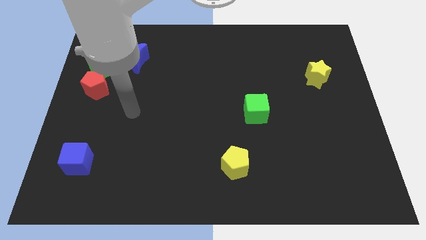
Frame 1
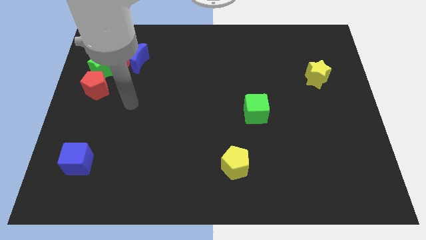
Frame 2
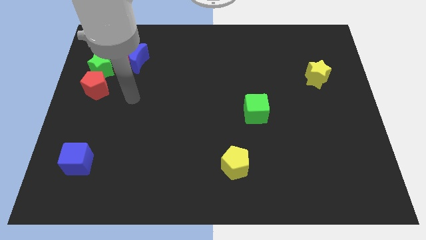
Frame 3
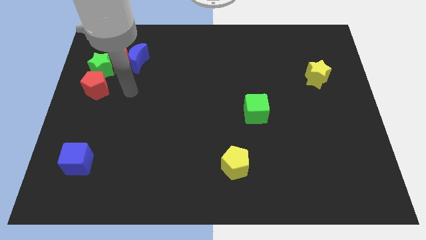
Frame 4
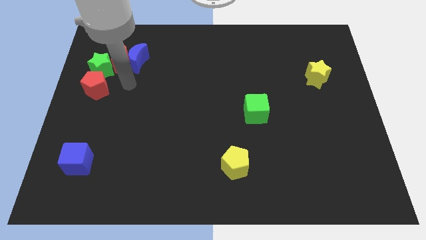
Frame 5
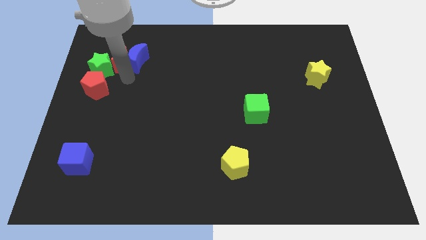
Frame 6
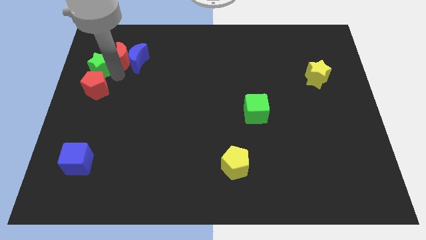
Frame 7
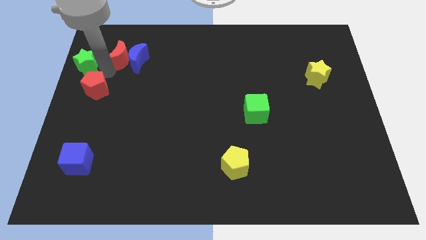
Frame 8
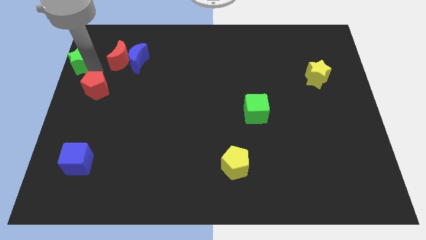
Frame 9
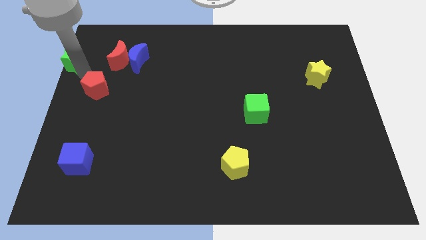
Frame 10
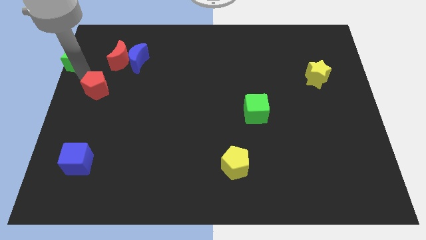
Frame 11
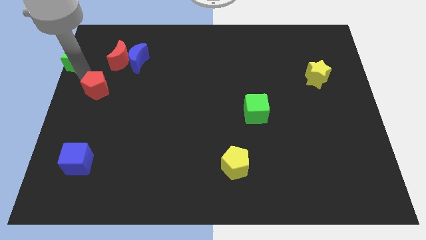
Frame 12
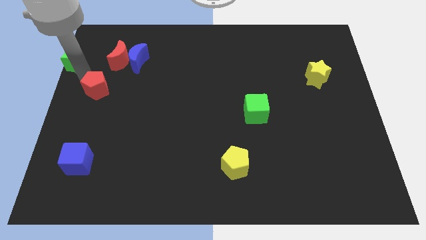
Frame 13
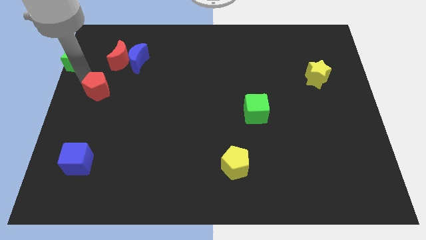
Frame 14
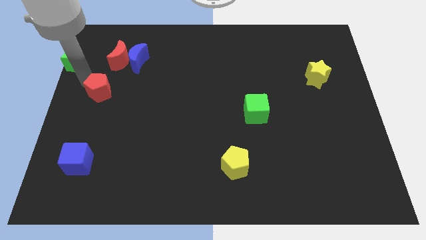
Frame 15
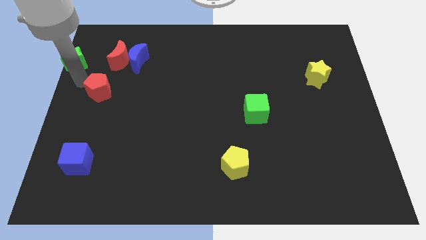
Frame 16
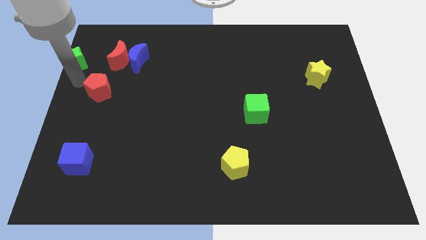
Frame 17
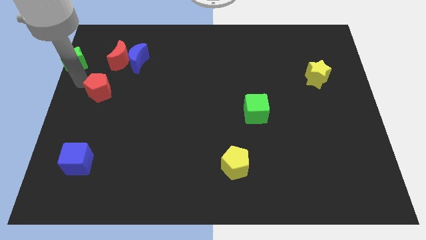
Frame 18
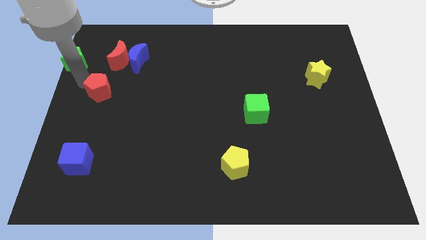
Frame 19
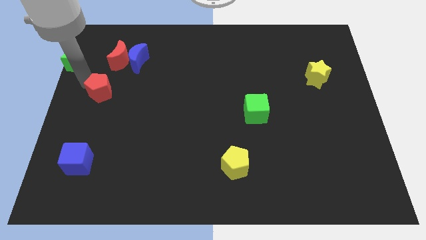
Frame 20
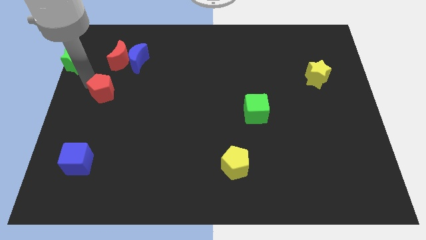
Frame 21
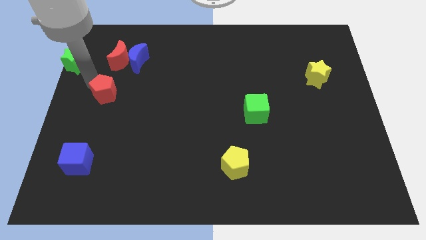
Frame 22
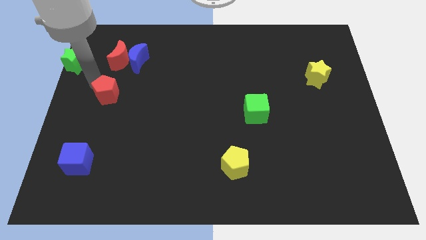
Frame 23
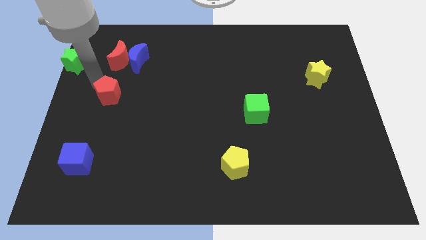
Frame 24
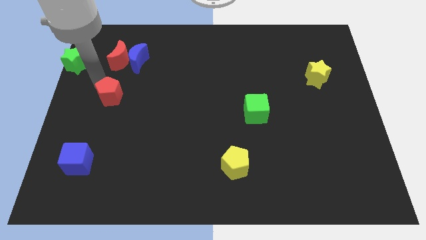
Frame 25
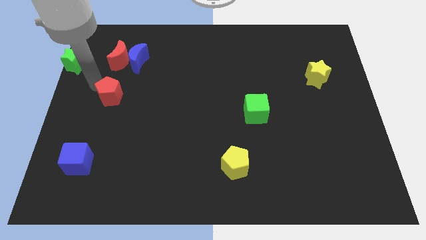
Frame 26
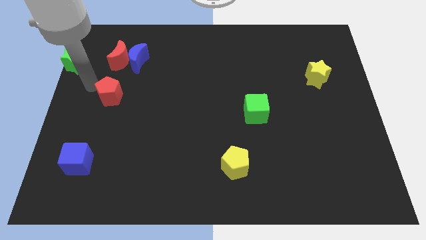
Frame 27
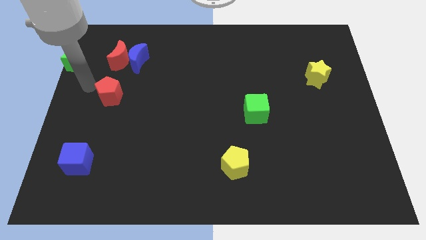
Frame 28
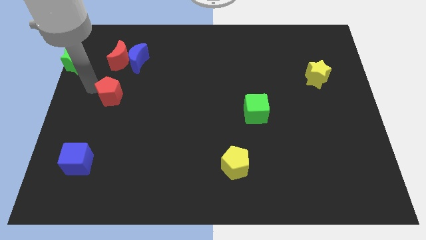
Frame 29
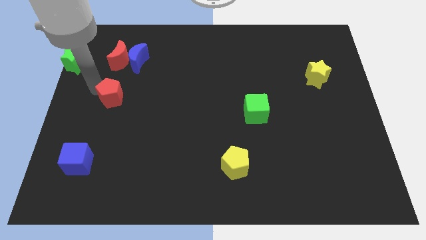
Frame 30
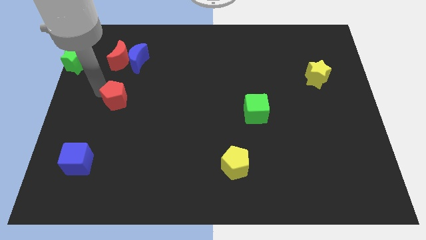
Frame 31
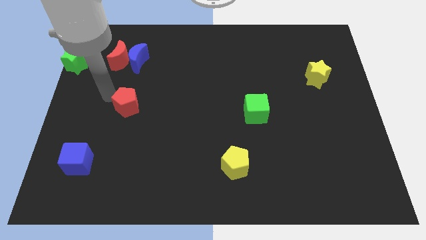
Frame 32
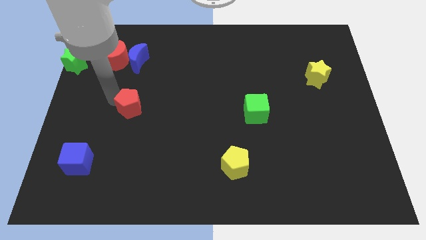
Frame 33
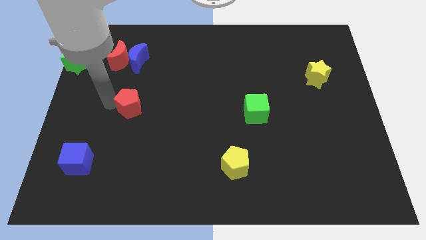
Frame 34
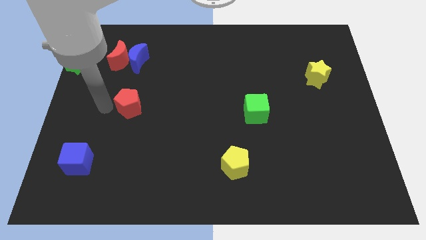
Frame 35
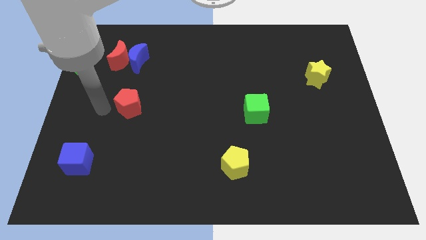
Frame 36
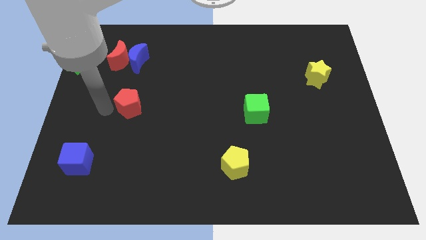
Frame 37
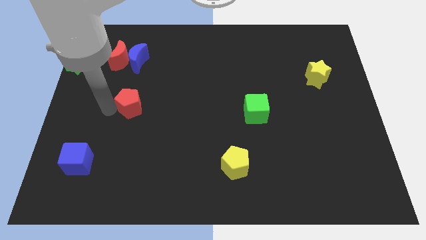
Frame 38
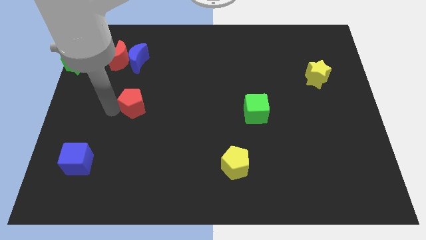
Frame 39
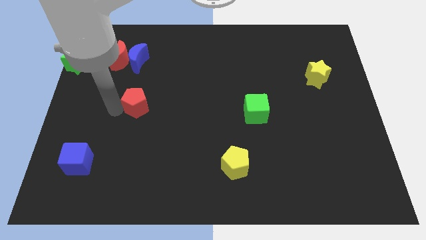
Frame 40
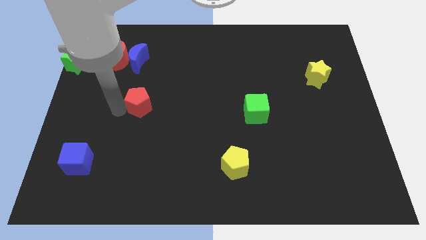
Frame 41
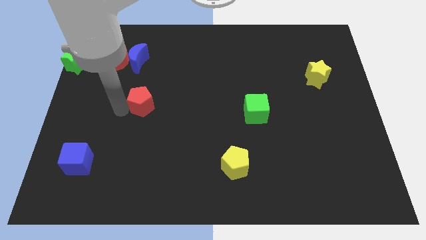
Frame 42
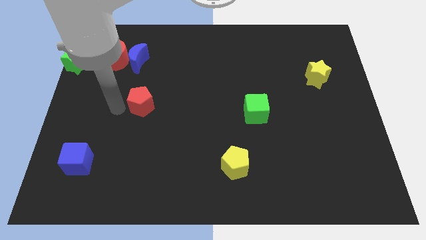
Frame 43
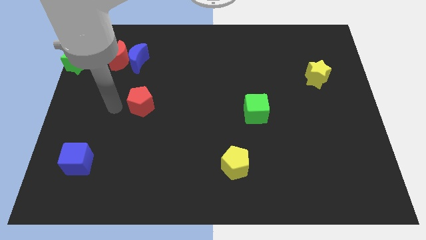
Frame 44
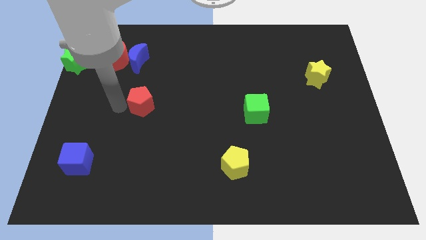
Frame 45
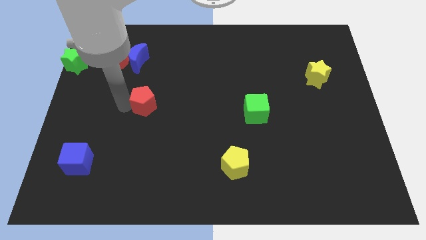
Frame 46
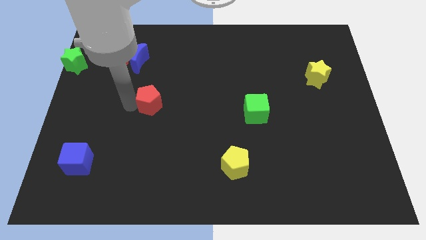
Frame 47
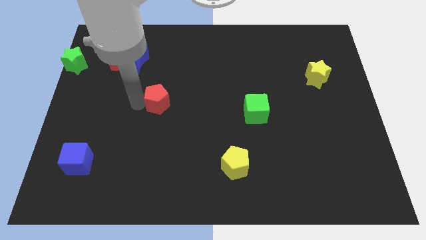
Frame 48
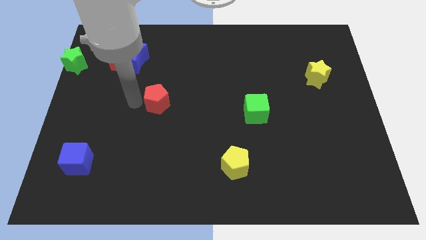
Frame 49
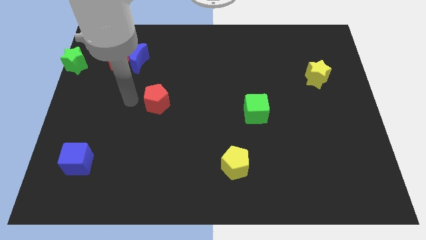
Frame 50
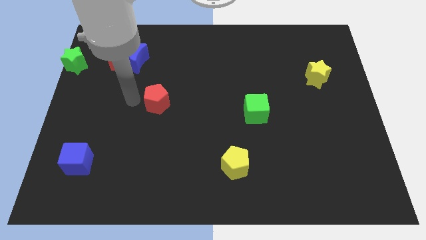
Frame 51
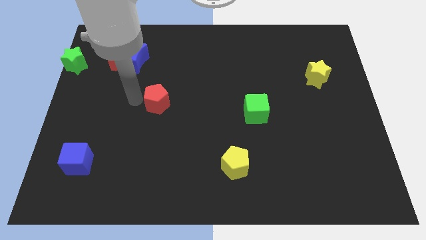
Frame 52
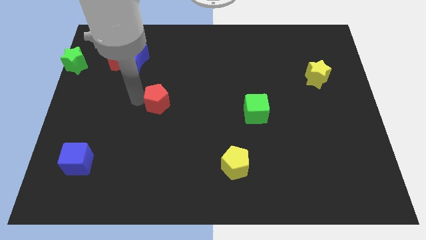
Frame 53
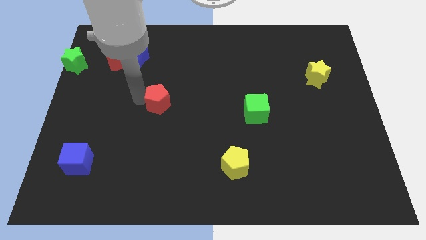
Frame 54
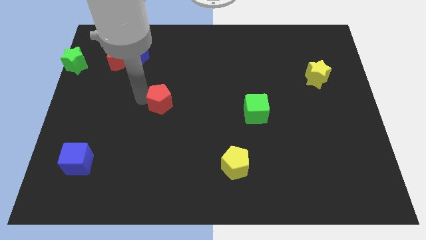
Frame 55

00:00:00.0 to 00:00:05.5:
put the red pentagon to the middle of the board
